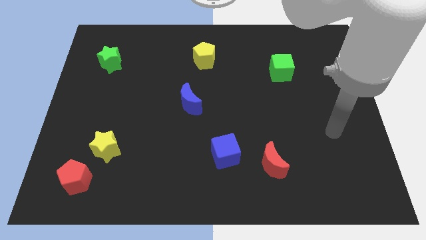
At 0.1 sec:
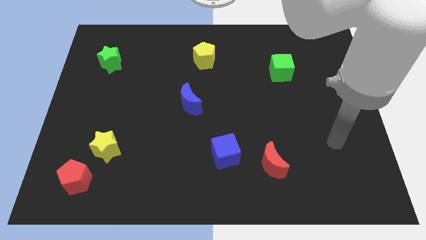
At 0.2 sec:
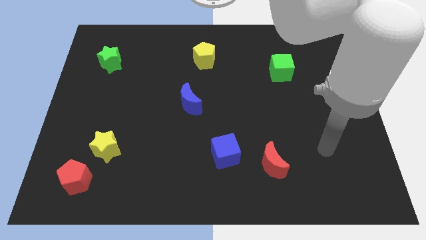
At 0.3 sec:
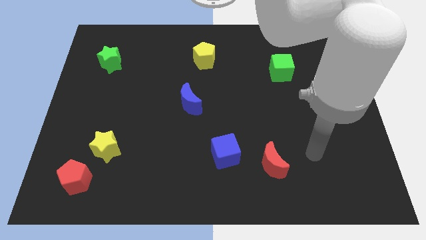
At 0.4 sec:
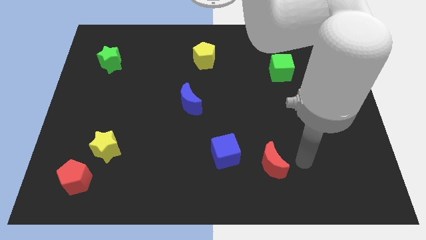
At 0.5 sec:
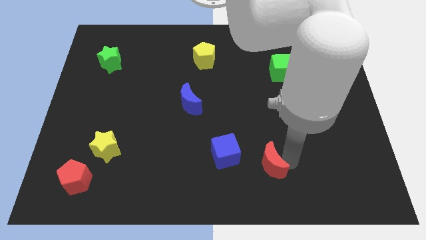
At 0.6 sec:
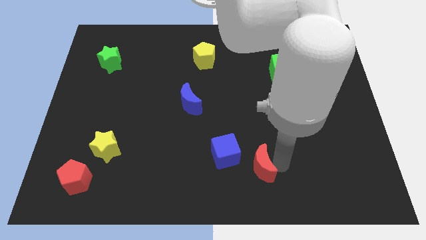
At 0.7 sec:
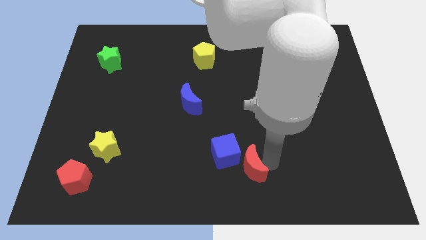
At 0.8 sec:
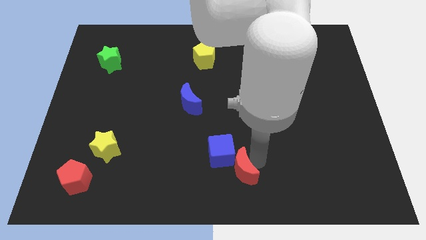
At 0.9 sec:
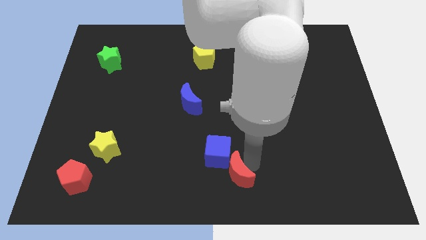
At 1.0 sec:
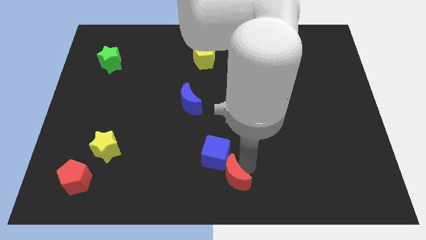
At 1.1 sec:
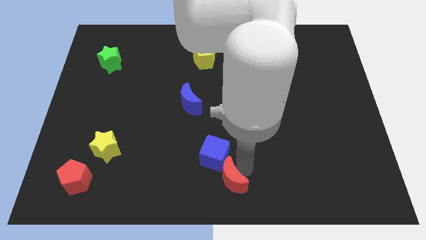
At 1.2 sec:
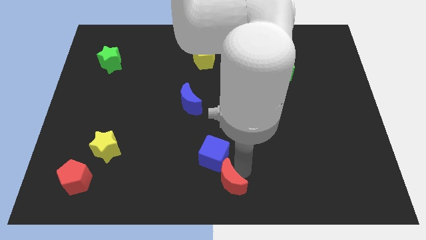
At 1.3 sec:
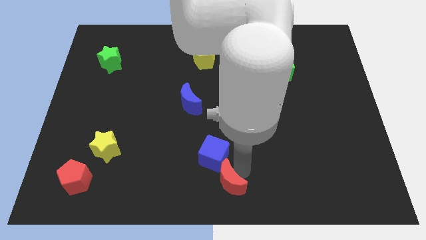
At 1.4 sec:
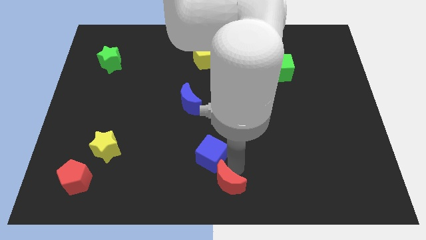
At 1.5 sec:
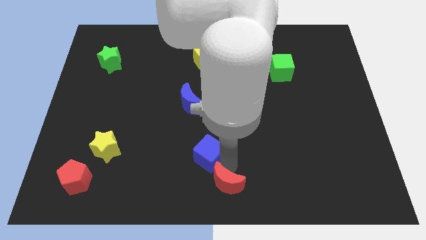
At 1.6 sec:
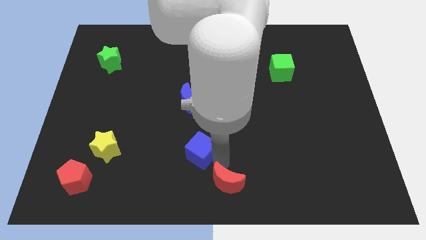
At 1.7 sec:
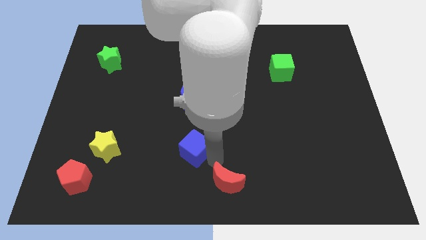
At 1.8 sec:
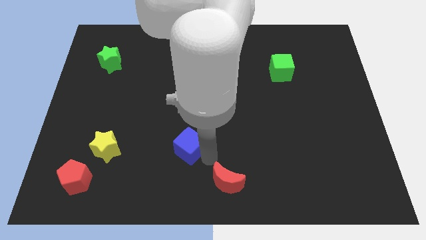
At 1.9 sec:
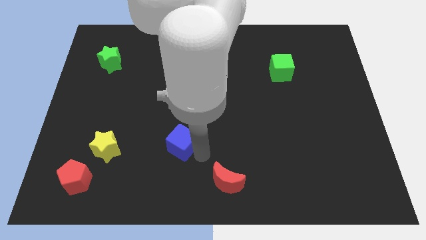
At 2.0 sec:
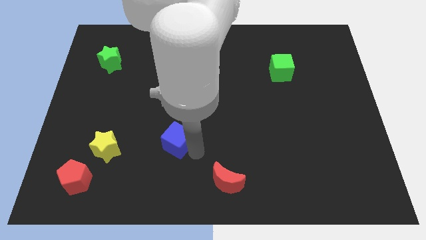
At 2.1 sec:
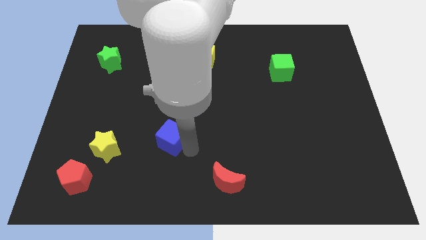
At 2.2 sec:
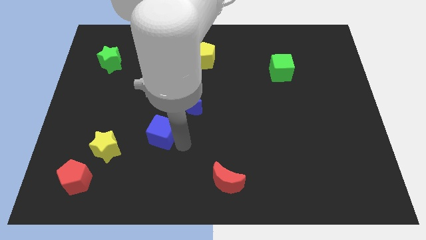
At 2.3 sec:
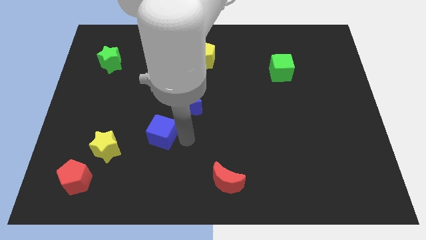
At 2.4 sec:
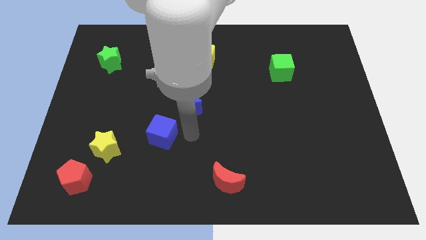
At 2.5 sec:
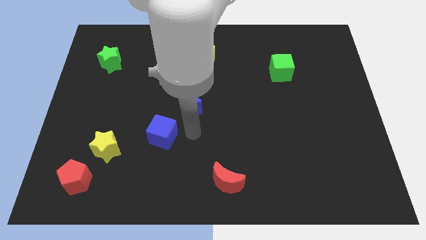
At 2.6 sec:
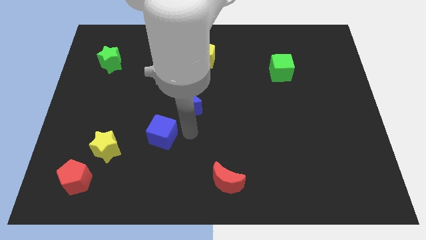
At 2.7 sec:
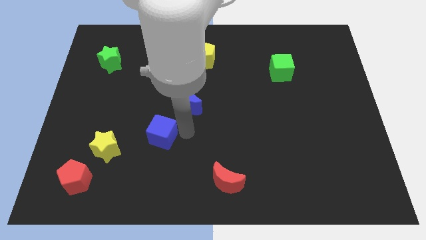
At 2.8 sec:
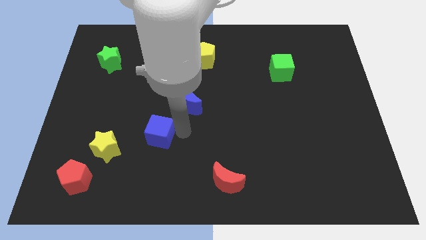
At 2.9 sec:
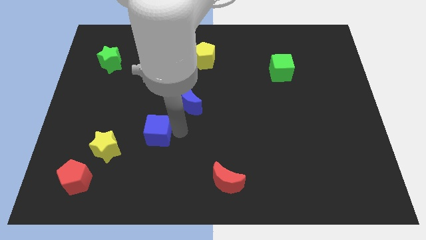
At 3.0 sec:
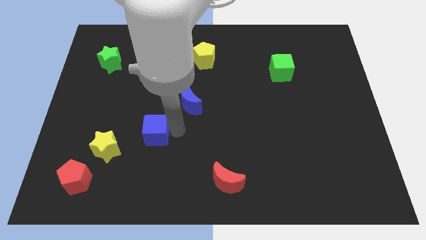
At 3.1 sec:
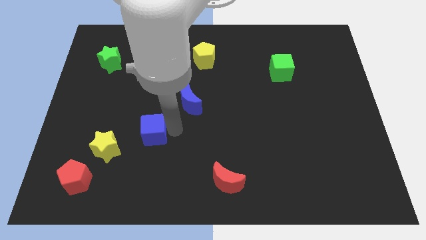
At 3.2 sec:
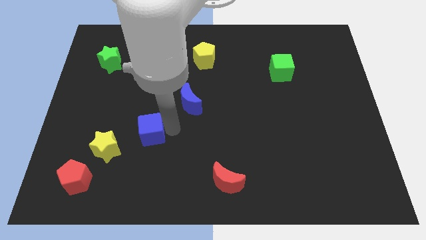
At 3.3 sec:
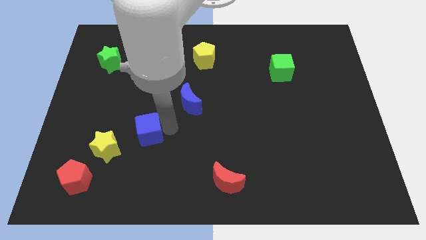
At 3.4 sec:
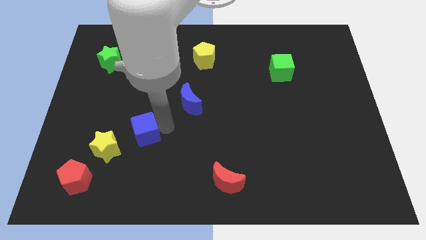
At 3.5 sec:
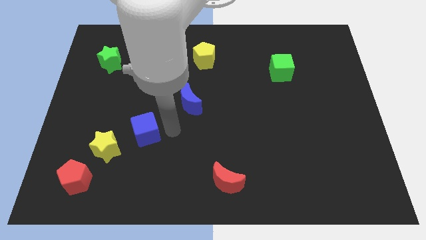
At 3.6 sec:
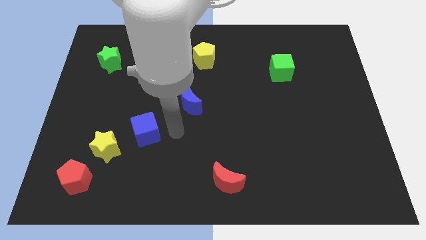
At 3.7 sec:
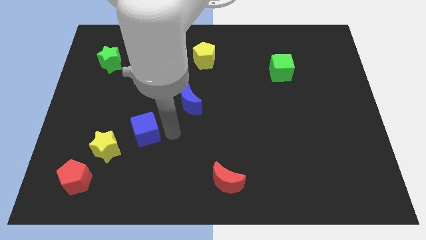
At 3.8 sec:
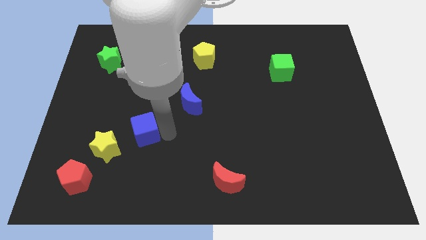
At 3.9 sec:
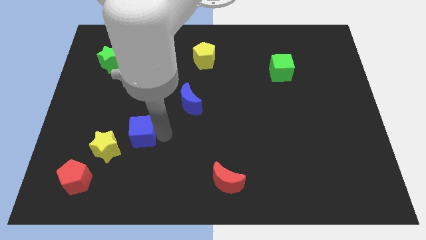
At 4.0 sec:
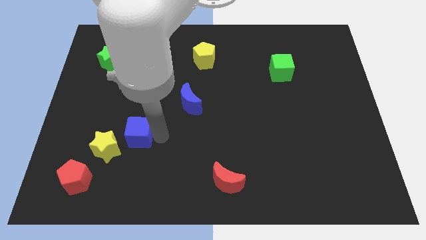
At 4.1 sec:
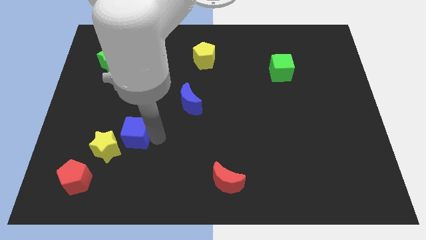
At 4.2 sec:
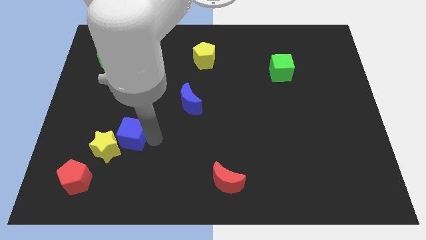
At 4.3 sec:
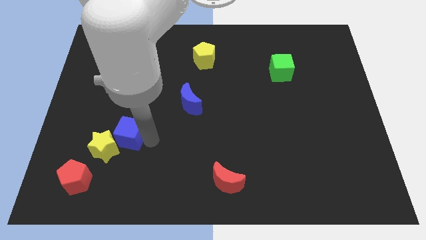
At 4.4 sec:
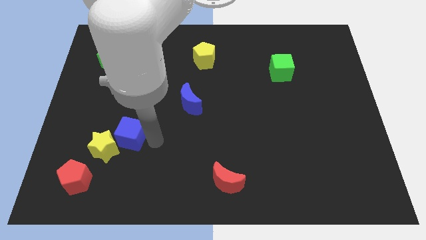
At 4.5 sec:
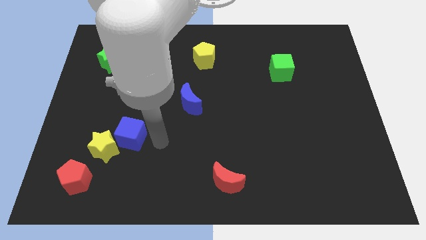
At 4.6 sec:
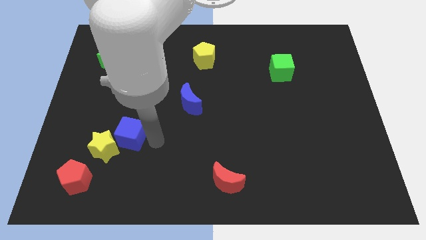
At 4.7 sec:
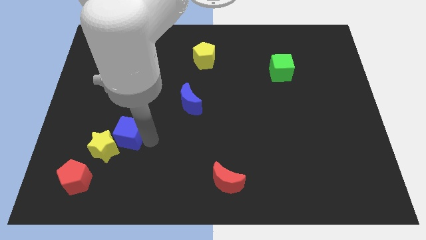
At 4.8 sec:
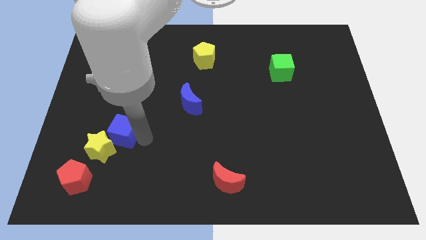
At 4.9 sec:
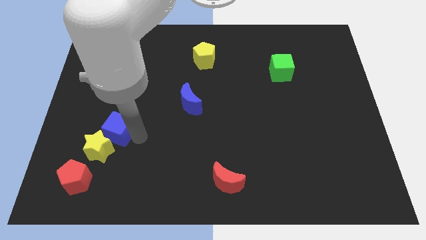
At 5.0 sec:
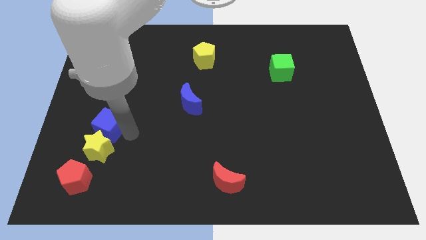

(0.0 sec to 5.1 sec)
move the blue cube diagonally up and to the left of the yellow star

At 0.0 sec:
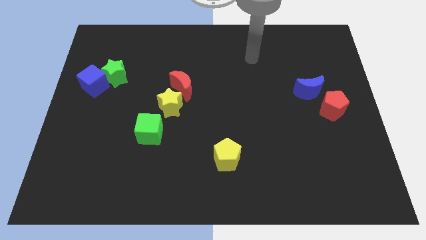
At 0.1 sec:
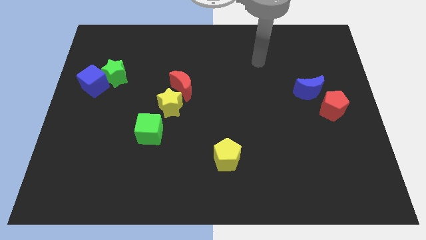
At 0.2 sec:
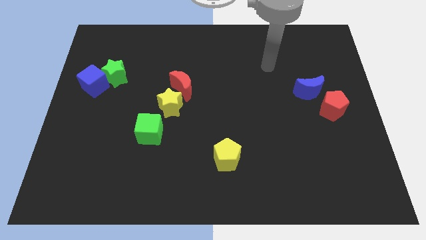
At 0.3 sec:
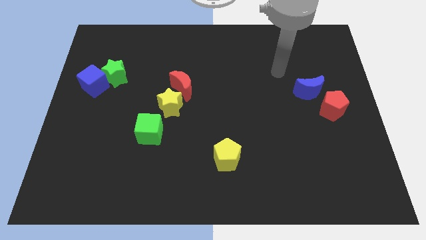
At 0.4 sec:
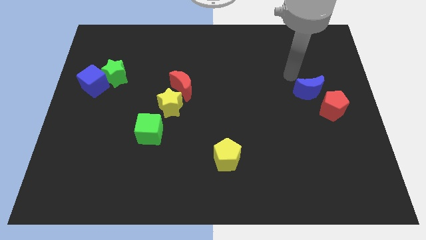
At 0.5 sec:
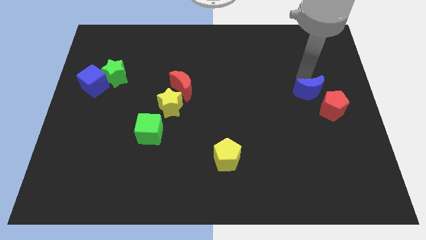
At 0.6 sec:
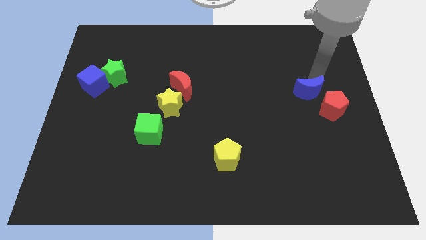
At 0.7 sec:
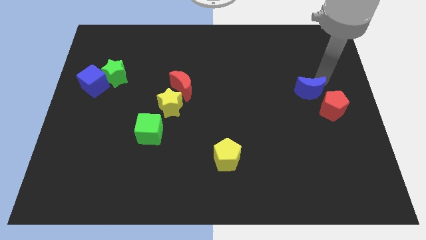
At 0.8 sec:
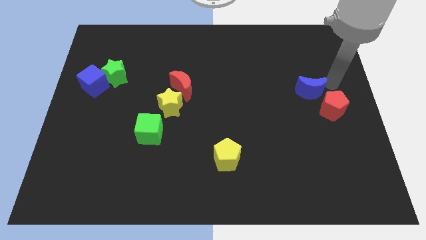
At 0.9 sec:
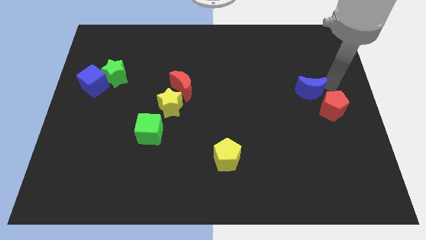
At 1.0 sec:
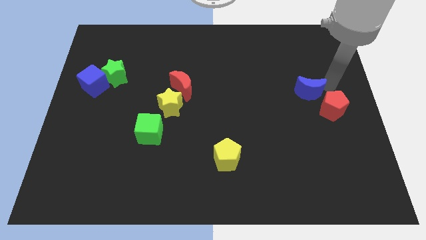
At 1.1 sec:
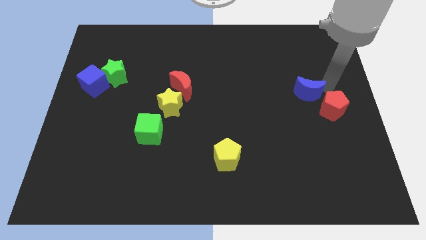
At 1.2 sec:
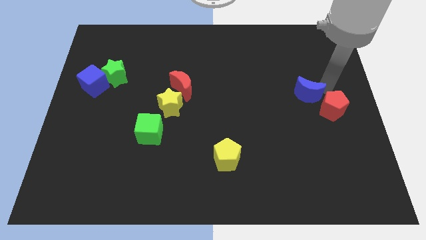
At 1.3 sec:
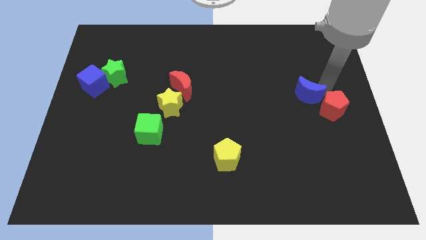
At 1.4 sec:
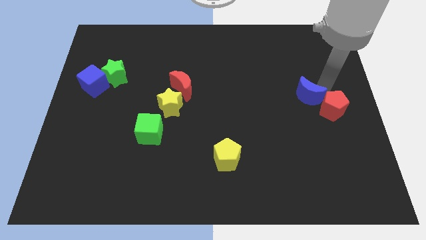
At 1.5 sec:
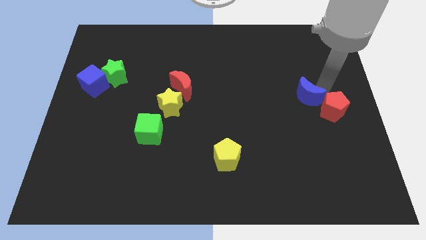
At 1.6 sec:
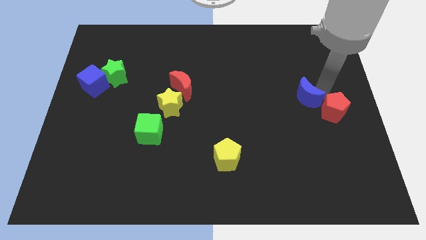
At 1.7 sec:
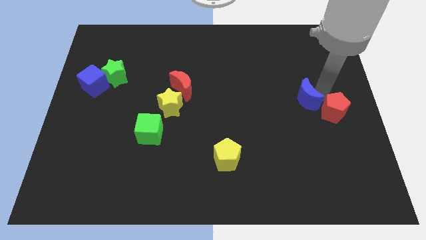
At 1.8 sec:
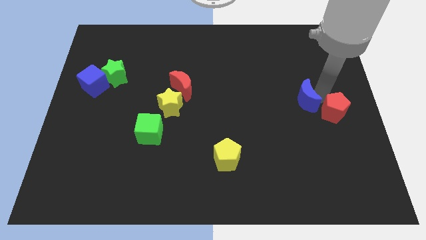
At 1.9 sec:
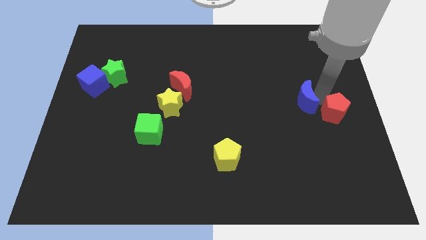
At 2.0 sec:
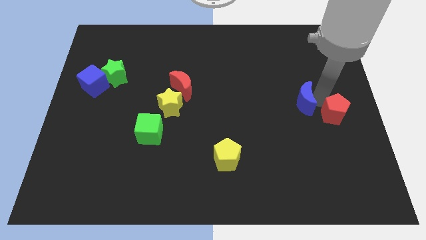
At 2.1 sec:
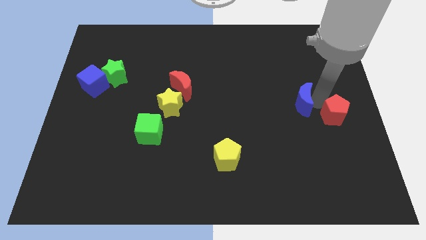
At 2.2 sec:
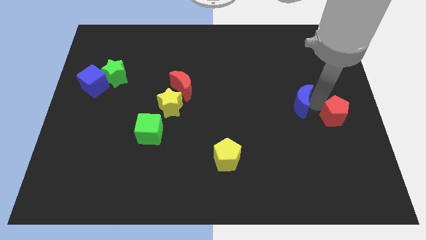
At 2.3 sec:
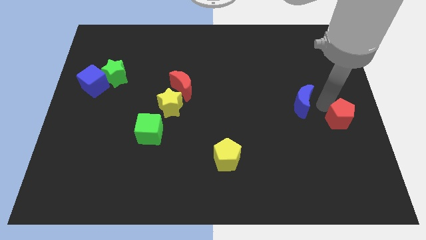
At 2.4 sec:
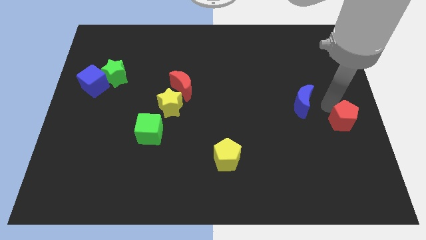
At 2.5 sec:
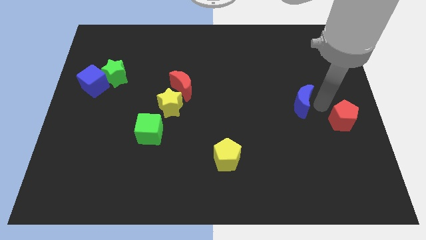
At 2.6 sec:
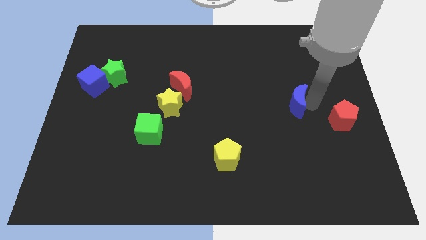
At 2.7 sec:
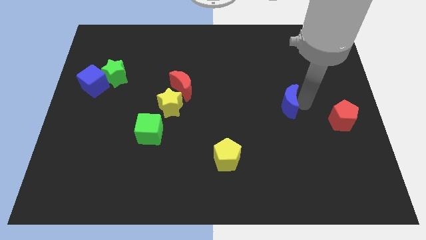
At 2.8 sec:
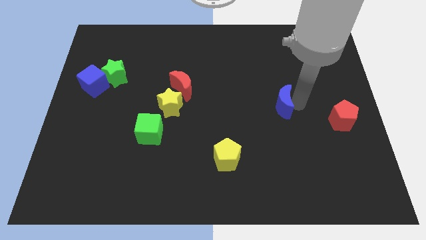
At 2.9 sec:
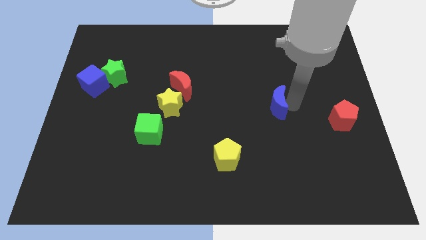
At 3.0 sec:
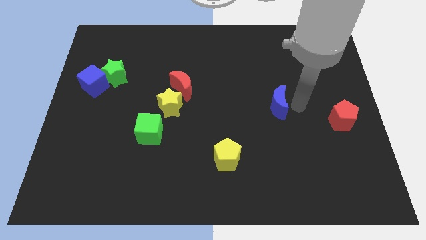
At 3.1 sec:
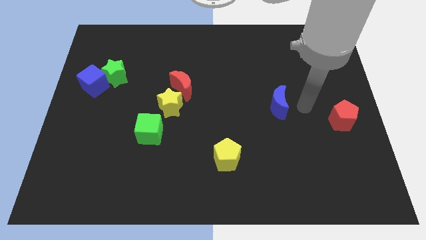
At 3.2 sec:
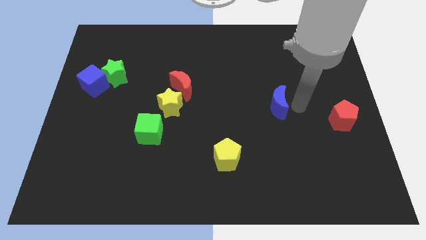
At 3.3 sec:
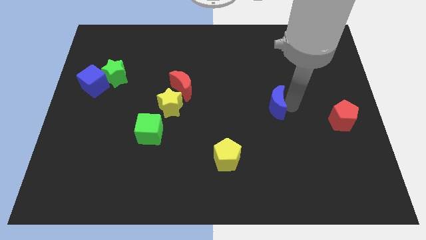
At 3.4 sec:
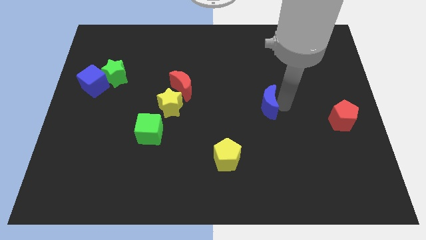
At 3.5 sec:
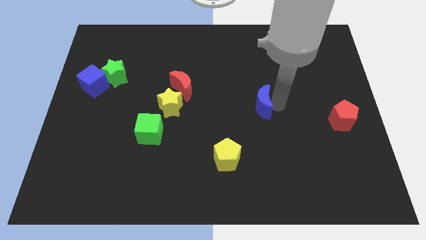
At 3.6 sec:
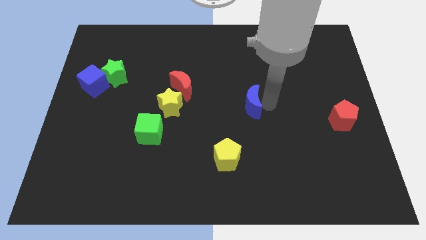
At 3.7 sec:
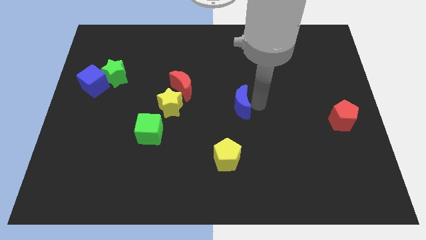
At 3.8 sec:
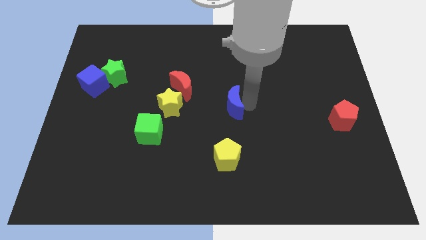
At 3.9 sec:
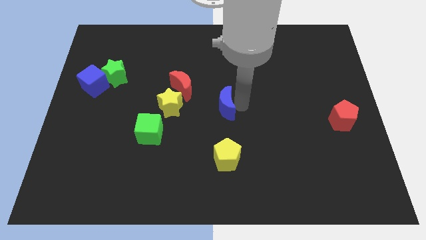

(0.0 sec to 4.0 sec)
put the blue moon diagonally down and to the right of the red moon
